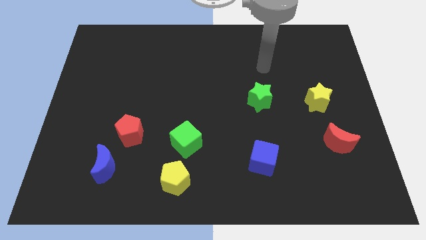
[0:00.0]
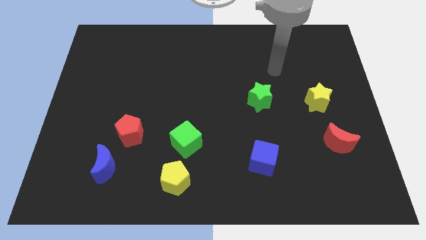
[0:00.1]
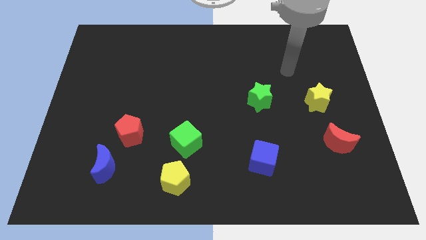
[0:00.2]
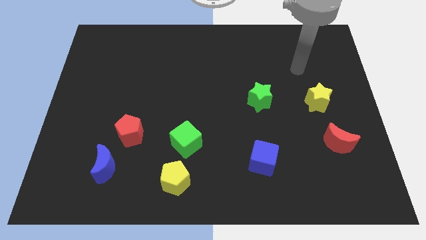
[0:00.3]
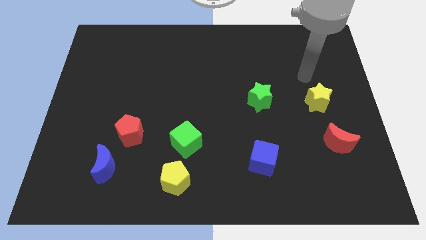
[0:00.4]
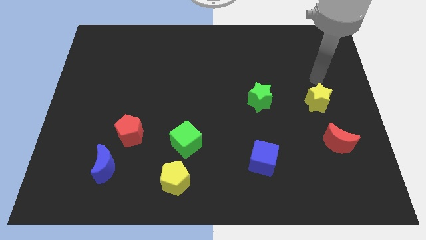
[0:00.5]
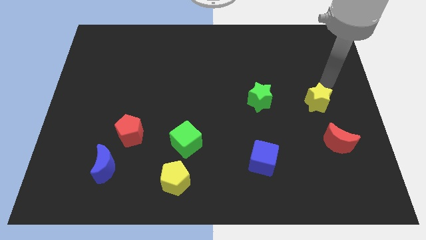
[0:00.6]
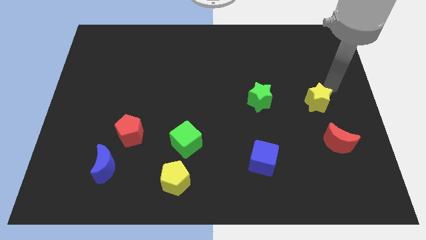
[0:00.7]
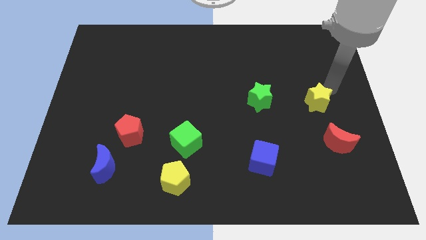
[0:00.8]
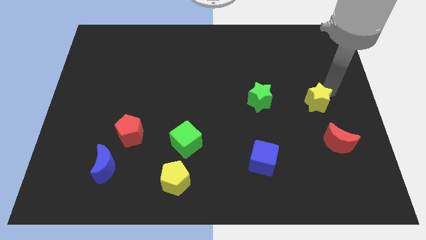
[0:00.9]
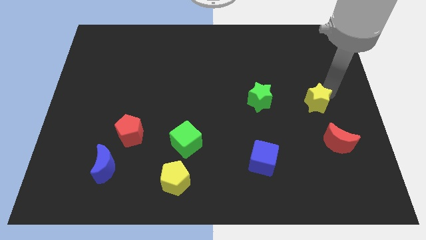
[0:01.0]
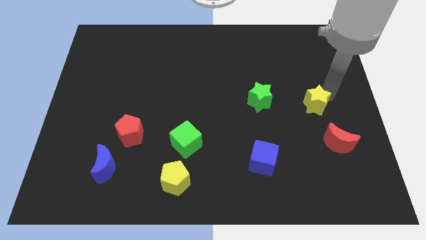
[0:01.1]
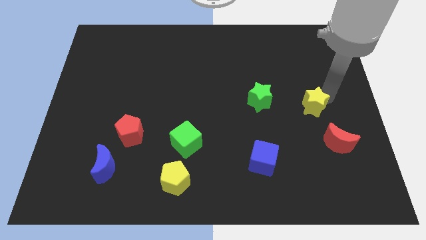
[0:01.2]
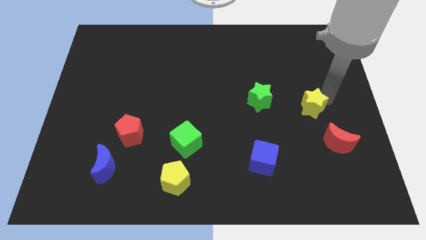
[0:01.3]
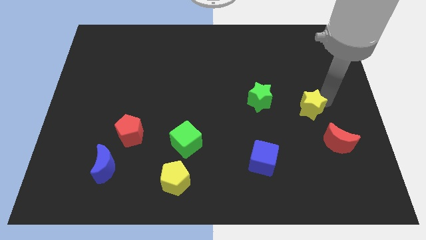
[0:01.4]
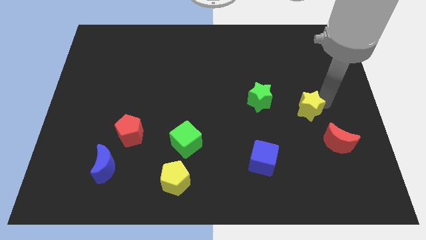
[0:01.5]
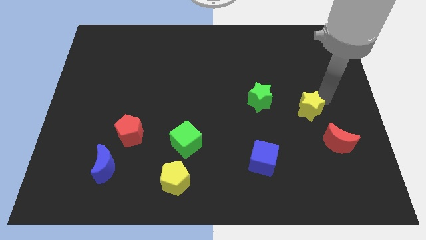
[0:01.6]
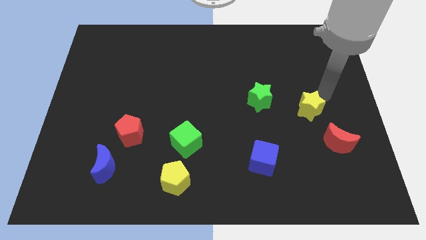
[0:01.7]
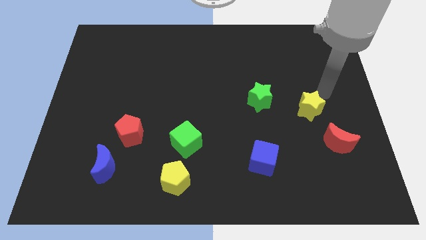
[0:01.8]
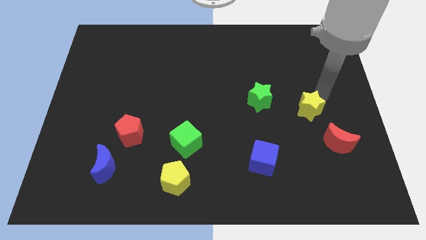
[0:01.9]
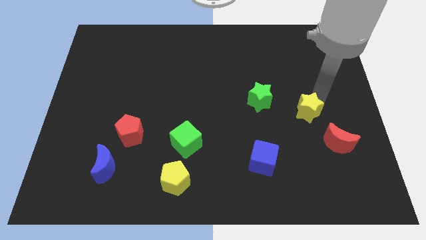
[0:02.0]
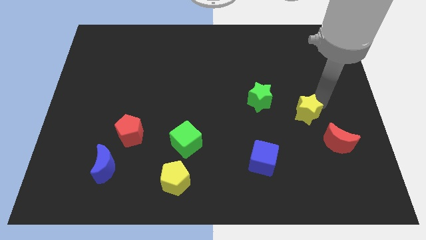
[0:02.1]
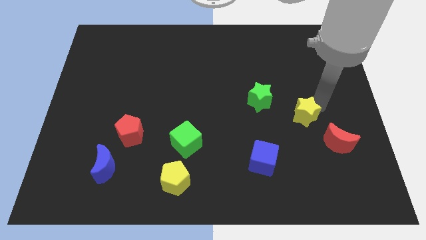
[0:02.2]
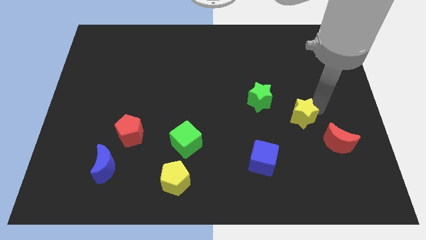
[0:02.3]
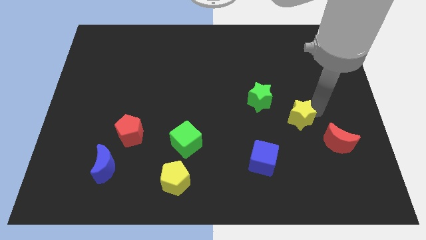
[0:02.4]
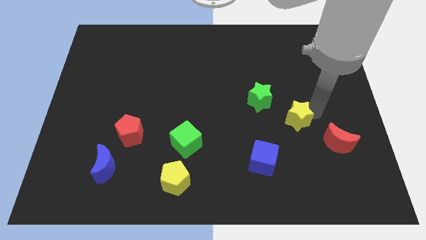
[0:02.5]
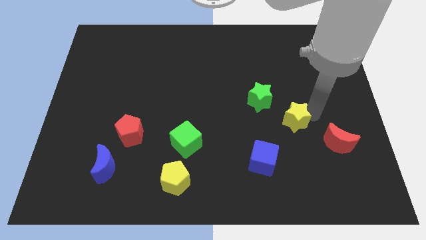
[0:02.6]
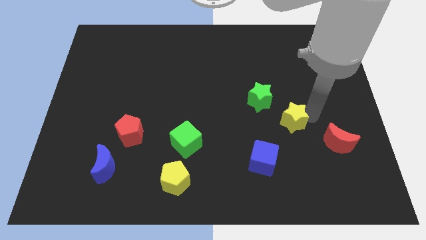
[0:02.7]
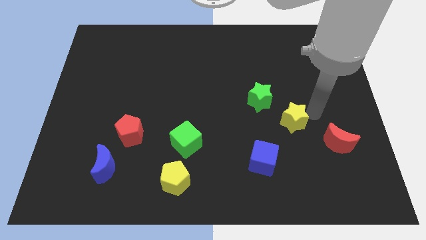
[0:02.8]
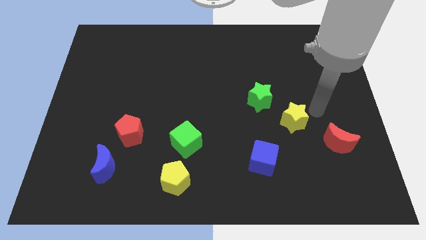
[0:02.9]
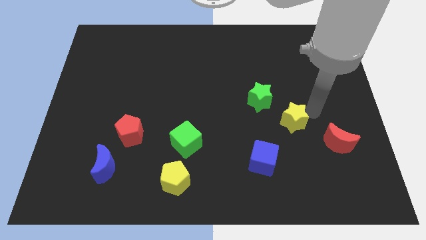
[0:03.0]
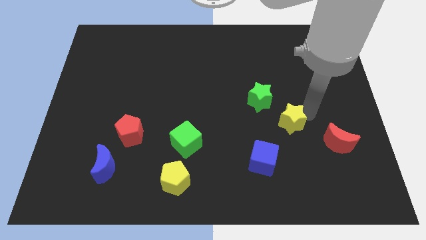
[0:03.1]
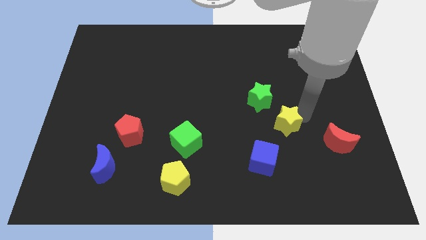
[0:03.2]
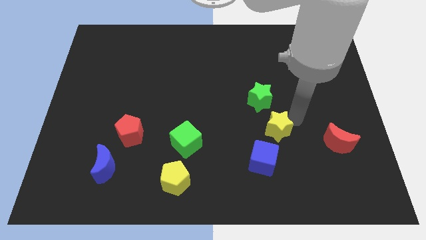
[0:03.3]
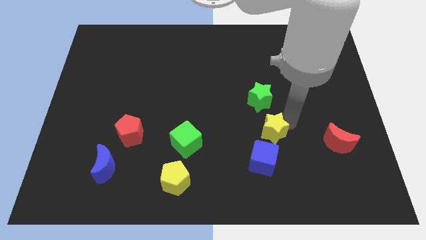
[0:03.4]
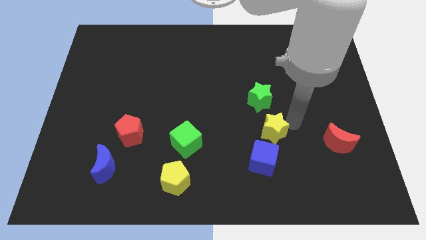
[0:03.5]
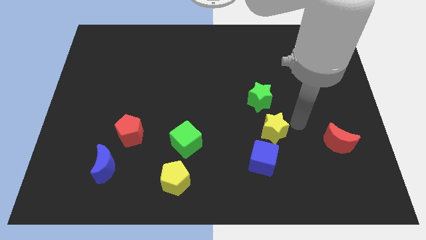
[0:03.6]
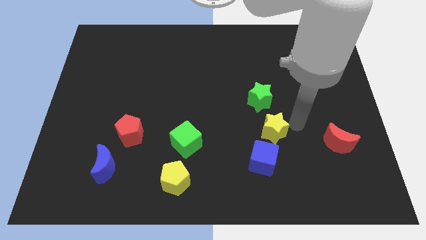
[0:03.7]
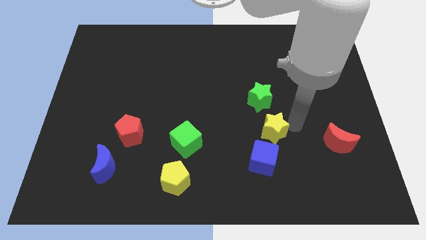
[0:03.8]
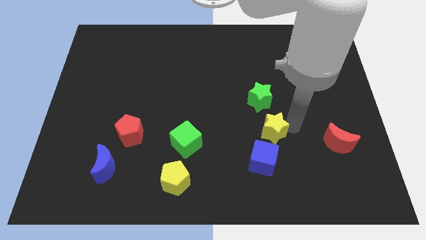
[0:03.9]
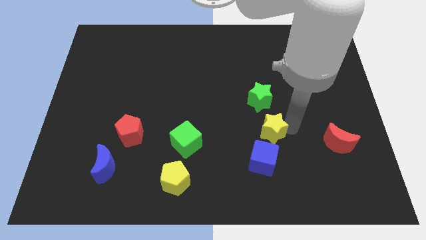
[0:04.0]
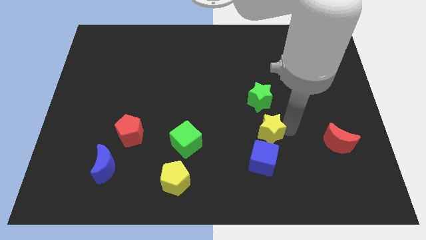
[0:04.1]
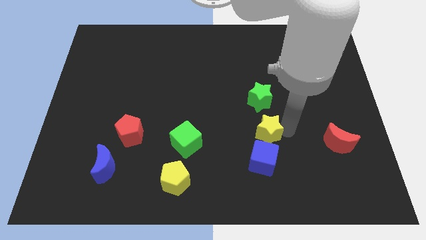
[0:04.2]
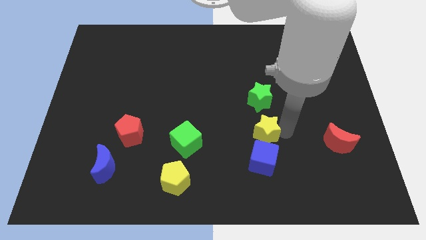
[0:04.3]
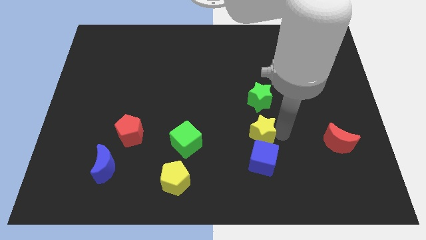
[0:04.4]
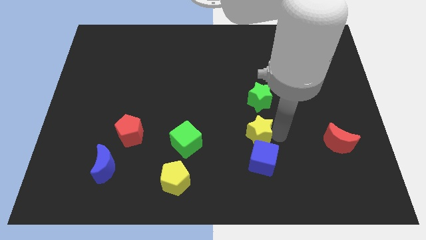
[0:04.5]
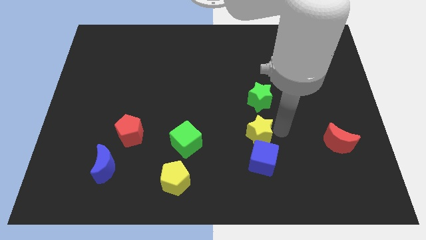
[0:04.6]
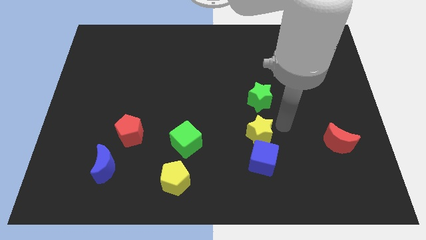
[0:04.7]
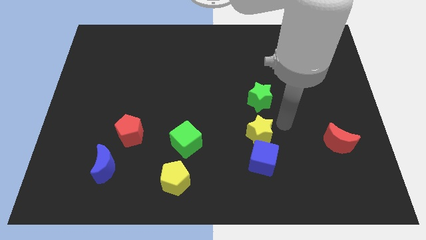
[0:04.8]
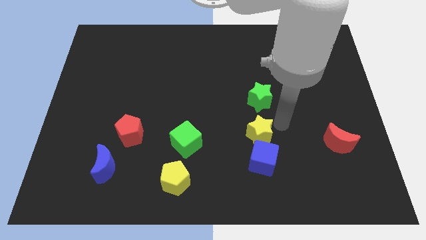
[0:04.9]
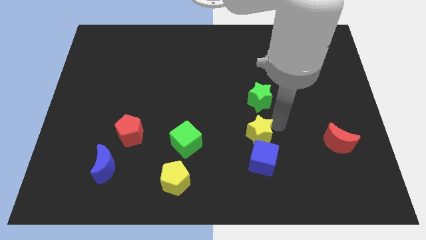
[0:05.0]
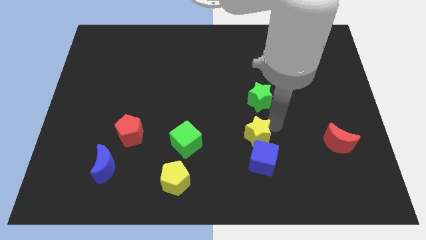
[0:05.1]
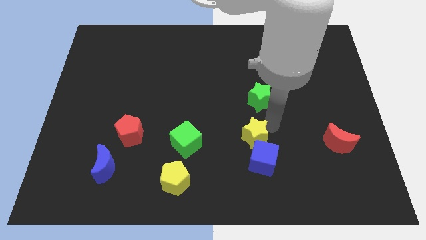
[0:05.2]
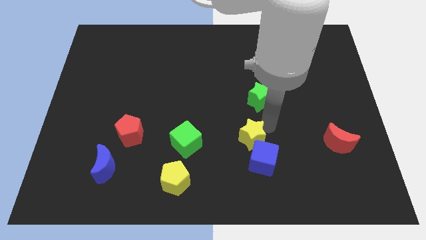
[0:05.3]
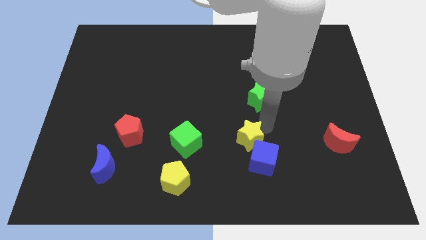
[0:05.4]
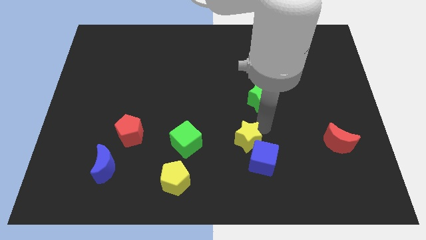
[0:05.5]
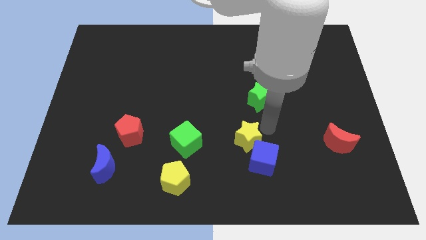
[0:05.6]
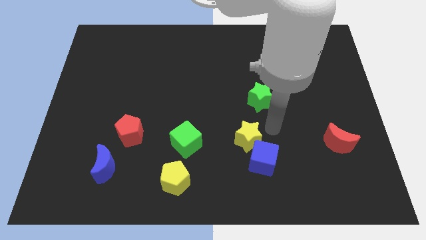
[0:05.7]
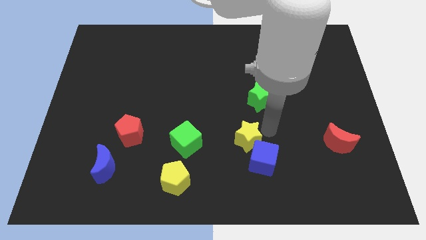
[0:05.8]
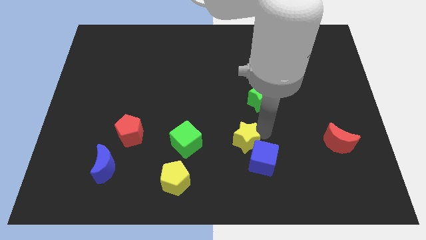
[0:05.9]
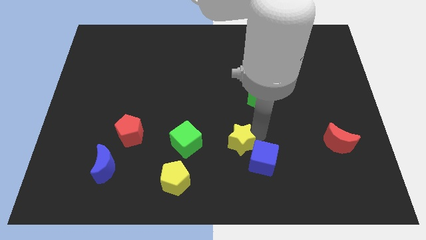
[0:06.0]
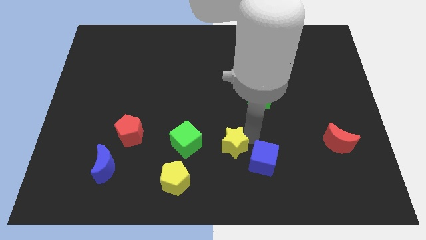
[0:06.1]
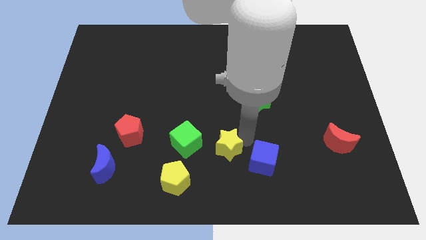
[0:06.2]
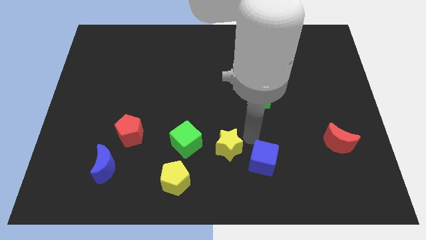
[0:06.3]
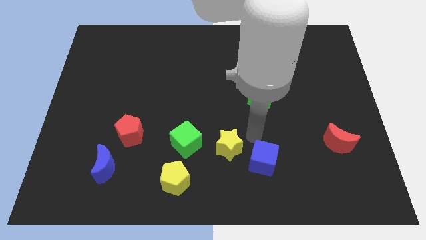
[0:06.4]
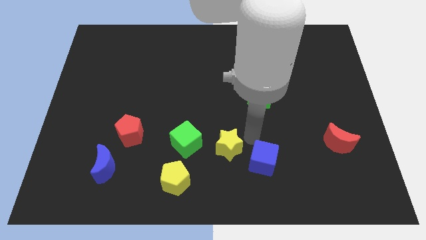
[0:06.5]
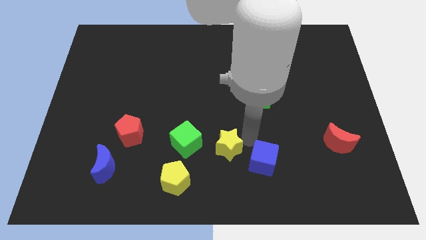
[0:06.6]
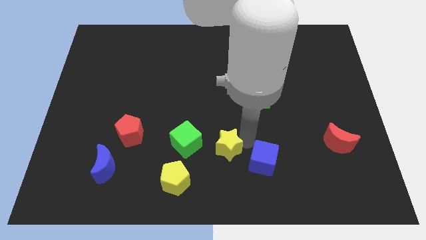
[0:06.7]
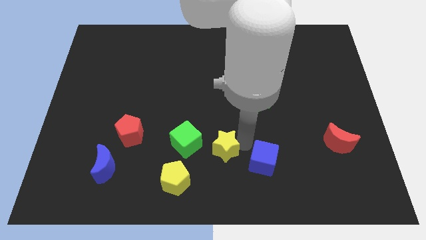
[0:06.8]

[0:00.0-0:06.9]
slide the yellow star diagonally up and to the right of the yellow pentagon
